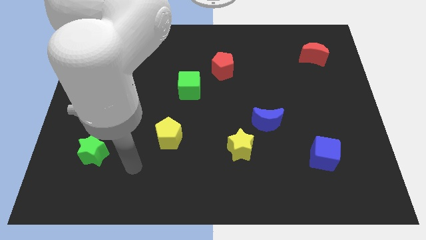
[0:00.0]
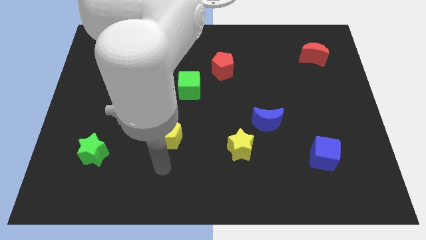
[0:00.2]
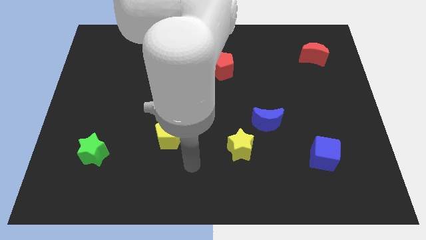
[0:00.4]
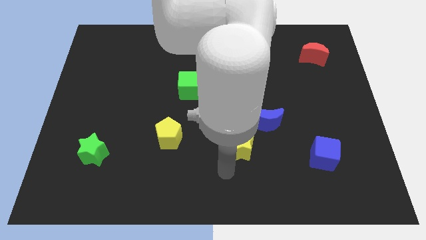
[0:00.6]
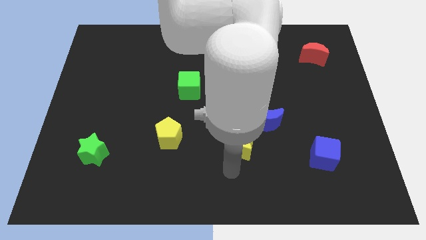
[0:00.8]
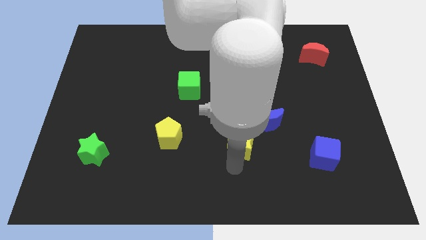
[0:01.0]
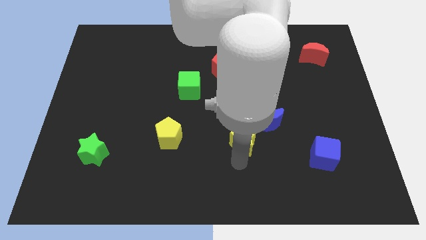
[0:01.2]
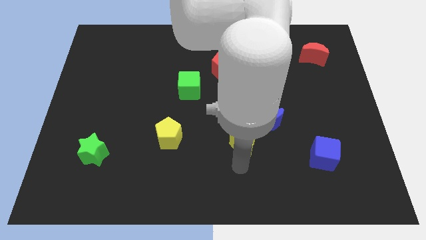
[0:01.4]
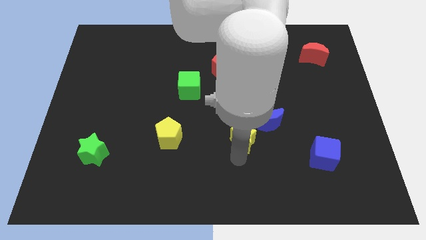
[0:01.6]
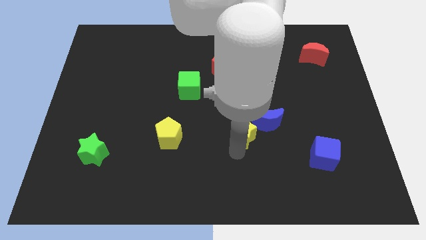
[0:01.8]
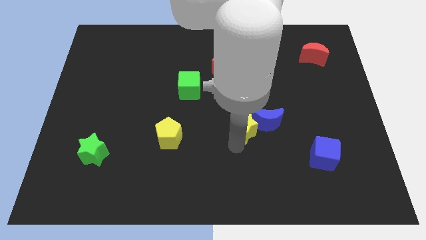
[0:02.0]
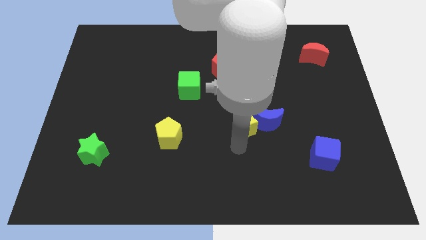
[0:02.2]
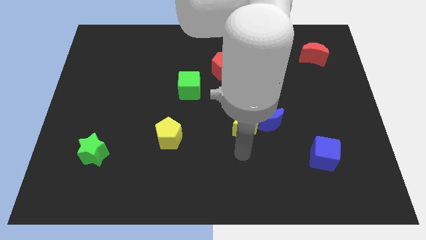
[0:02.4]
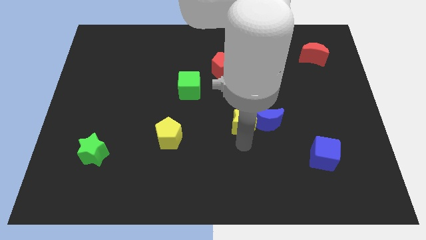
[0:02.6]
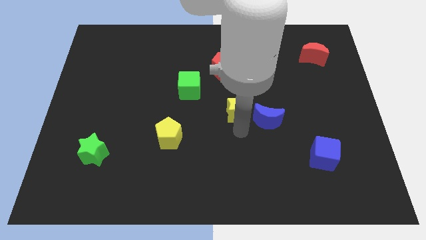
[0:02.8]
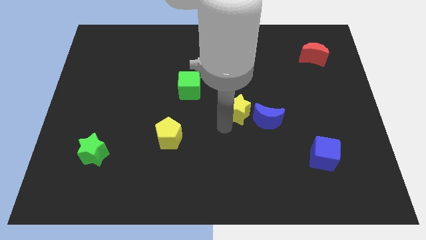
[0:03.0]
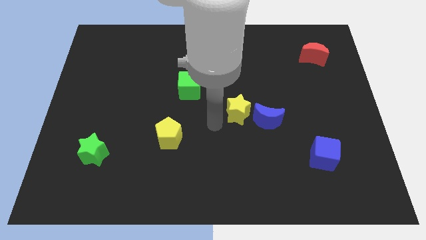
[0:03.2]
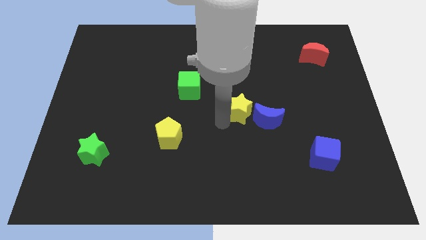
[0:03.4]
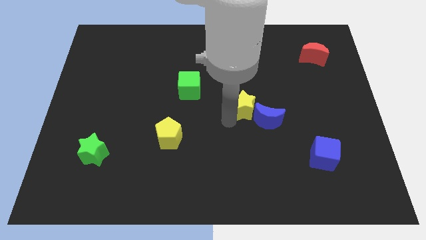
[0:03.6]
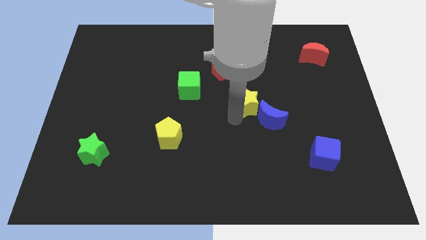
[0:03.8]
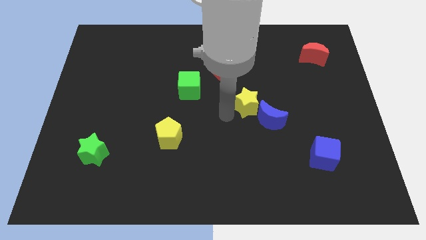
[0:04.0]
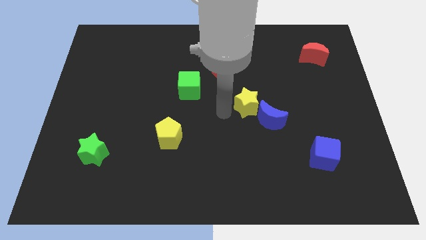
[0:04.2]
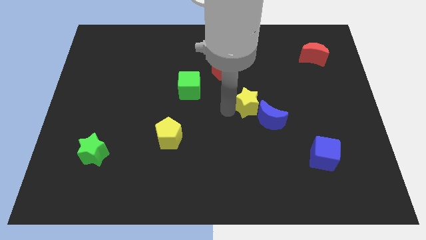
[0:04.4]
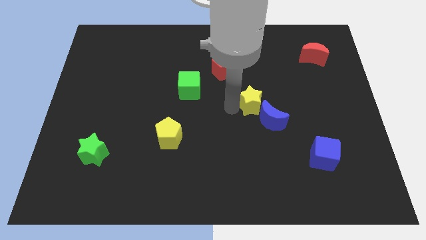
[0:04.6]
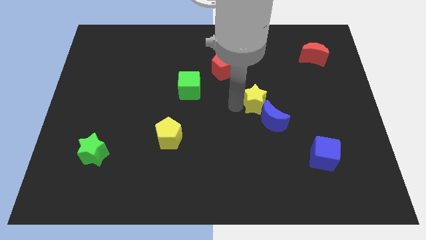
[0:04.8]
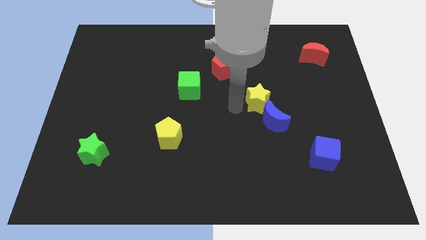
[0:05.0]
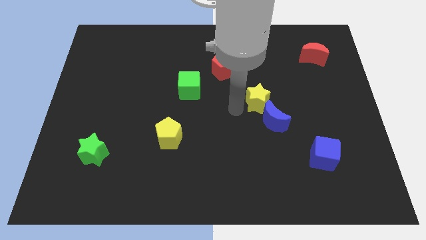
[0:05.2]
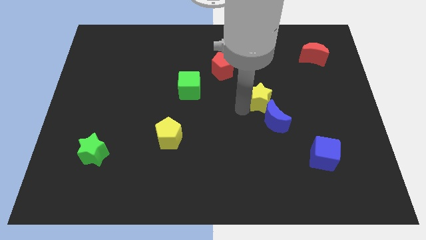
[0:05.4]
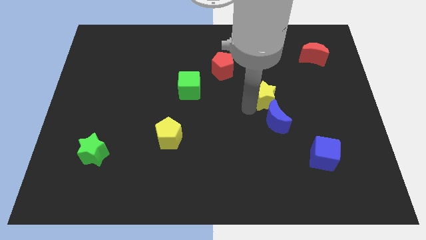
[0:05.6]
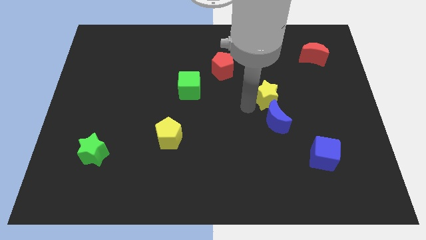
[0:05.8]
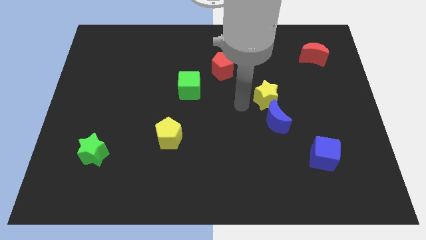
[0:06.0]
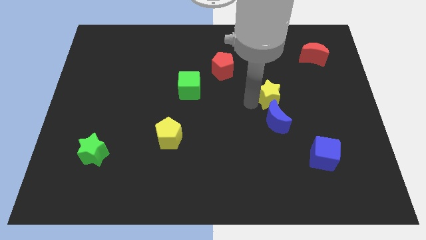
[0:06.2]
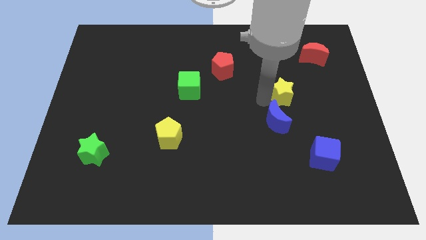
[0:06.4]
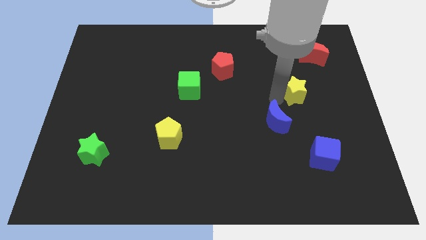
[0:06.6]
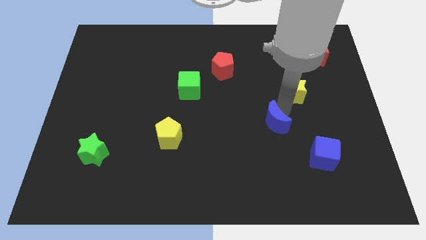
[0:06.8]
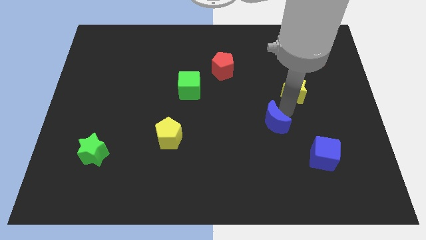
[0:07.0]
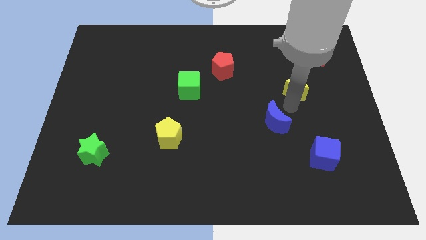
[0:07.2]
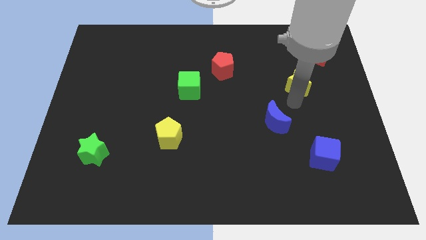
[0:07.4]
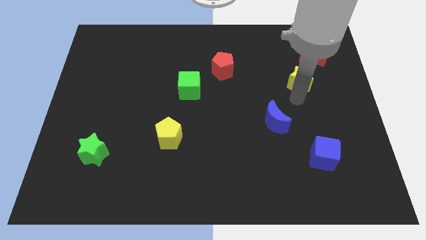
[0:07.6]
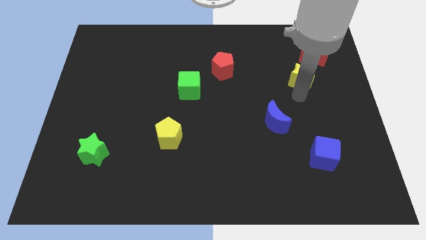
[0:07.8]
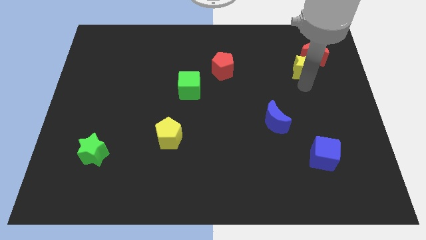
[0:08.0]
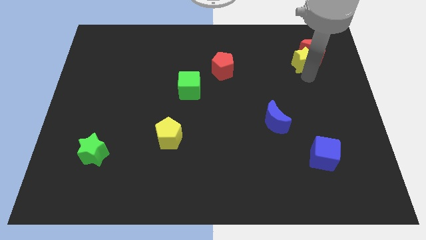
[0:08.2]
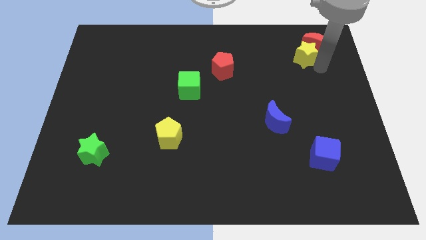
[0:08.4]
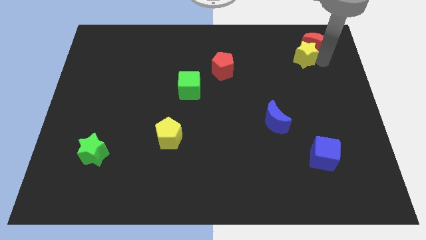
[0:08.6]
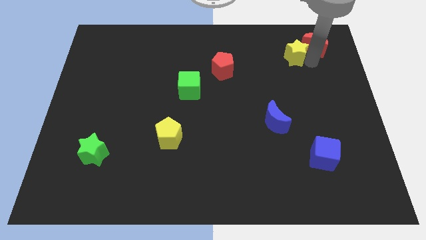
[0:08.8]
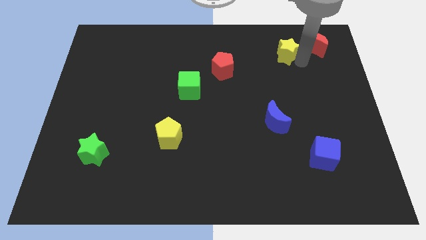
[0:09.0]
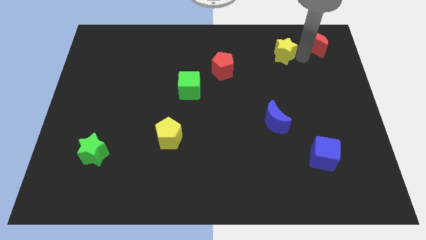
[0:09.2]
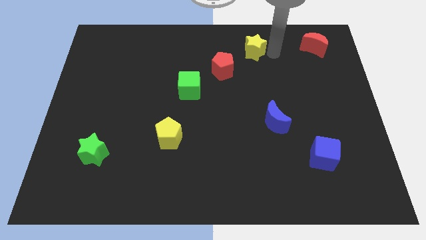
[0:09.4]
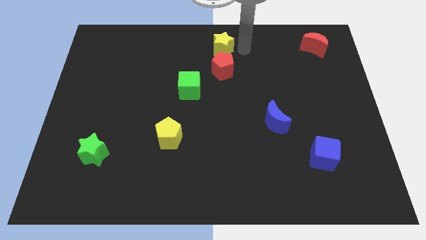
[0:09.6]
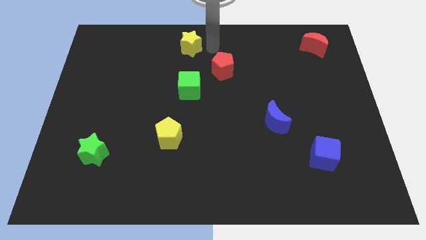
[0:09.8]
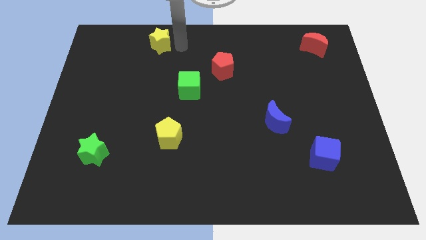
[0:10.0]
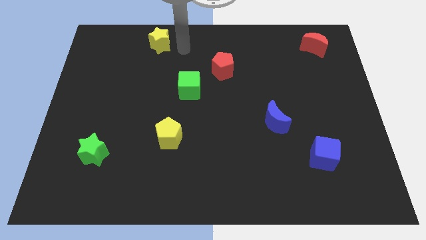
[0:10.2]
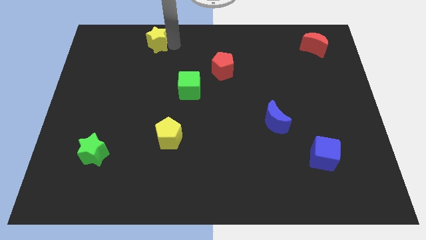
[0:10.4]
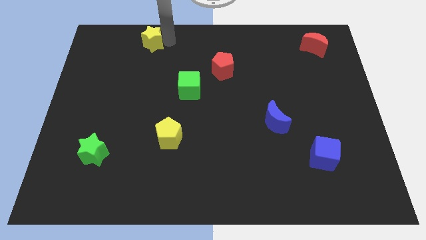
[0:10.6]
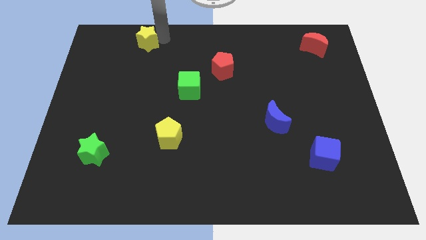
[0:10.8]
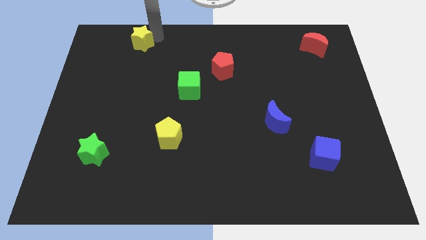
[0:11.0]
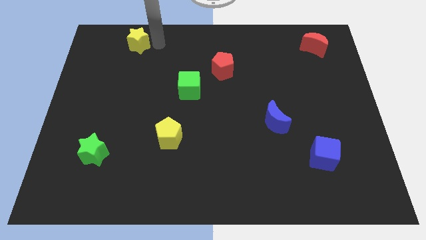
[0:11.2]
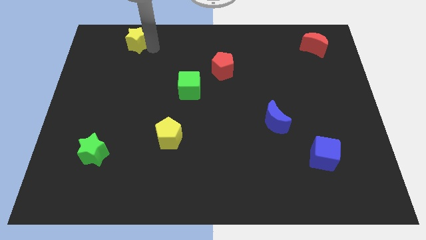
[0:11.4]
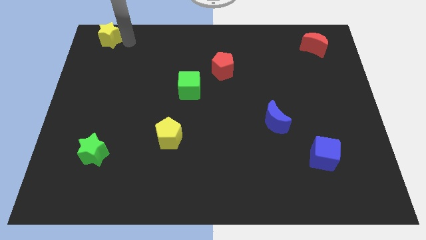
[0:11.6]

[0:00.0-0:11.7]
push the yellow star to the top left
